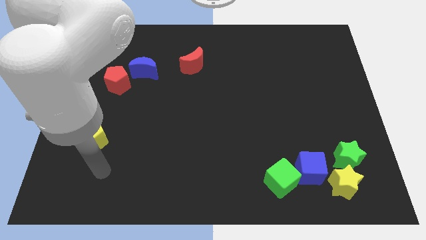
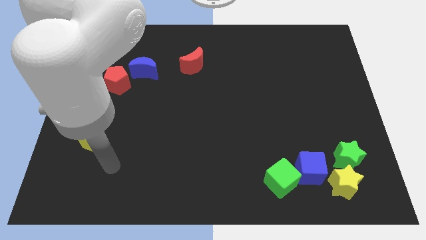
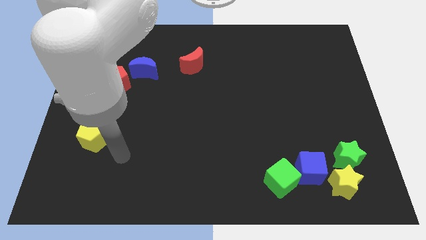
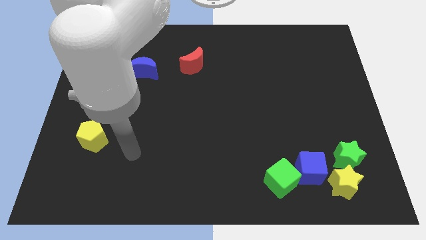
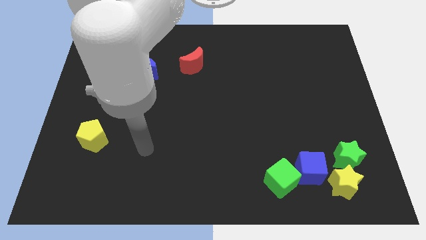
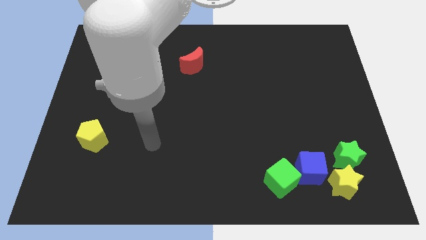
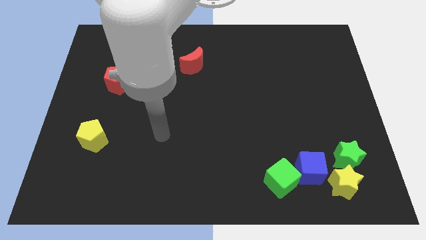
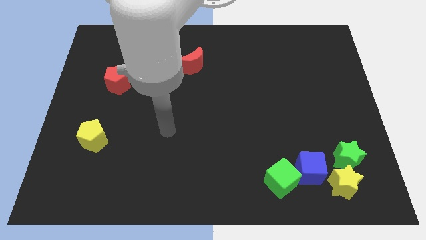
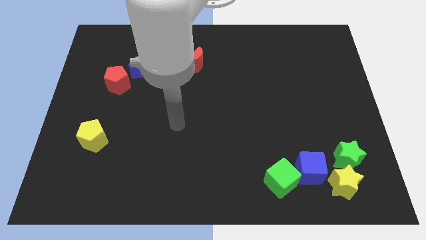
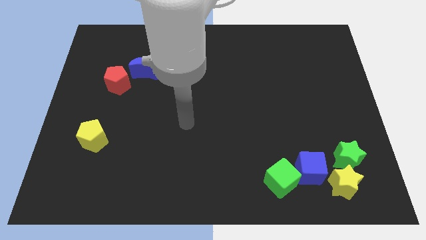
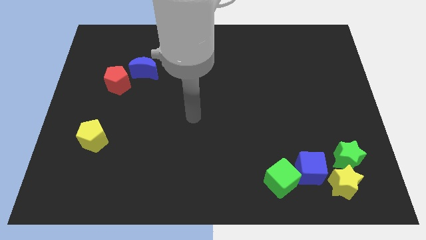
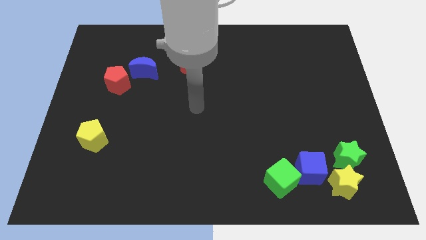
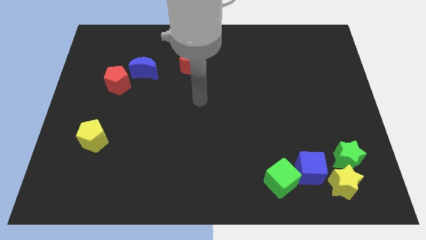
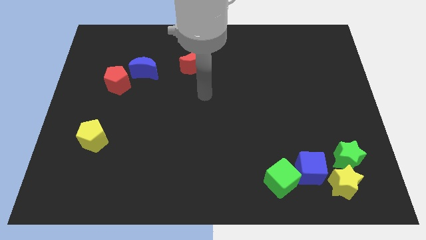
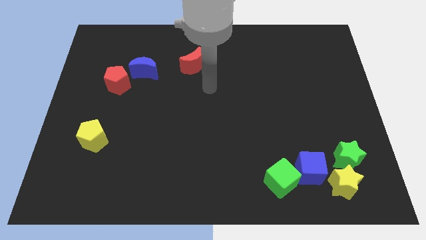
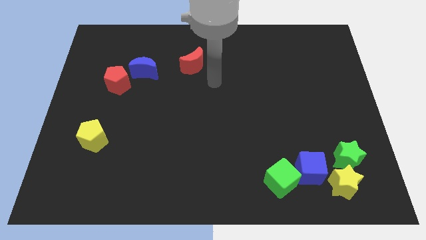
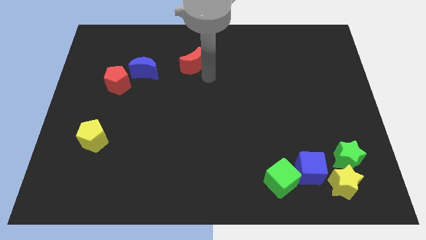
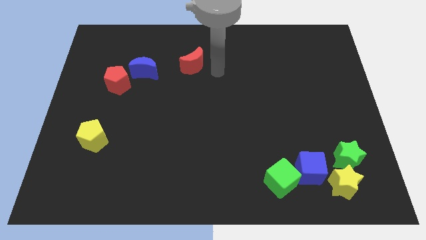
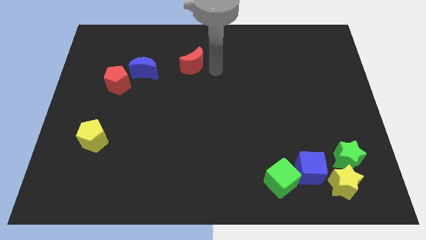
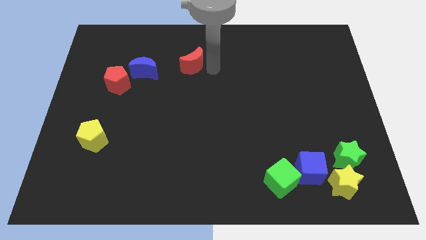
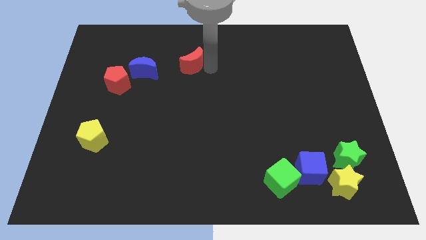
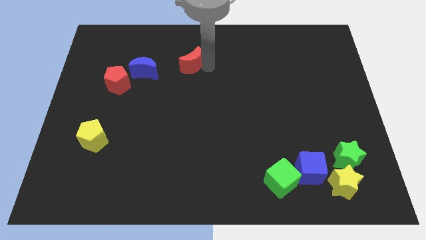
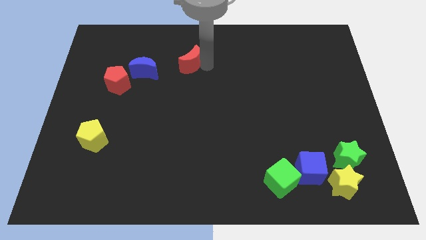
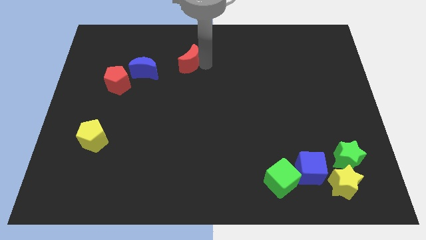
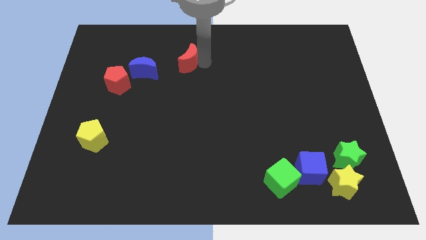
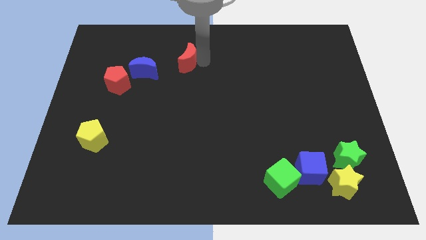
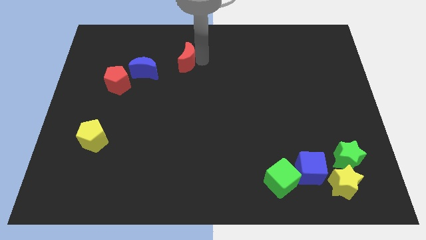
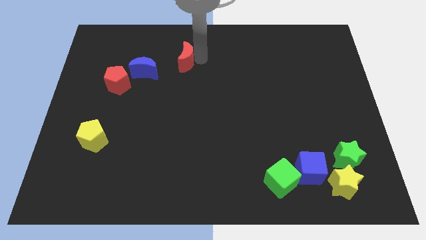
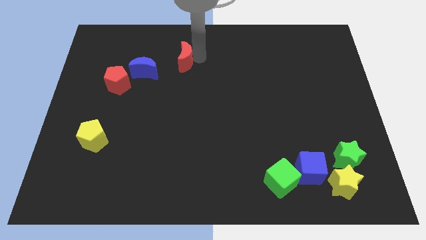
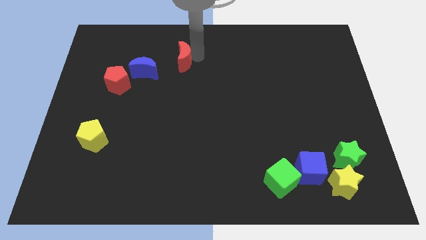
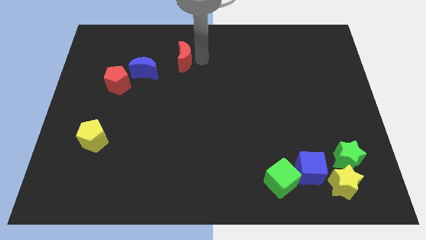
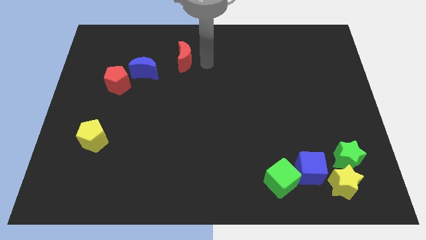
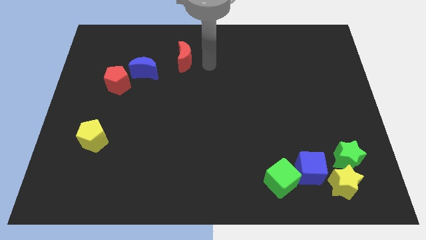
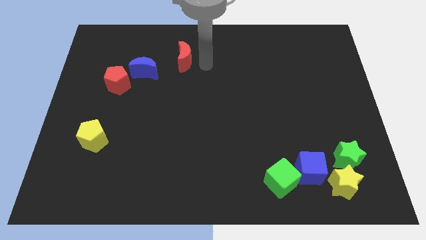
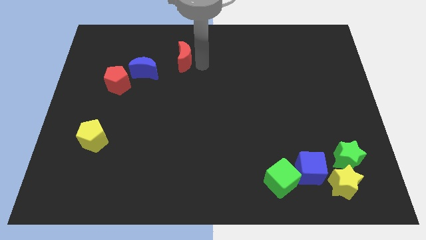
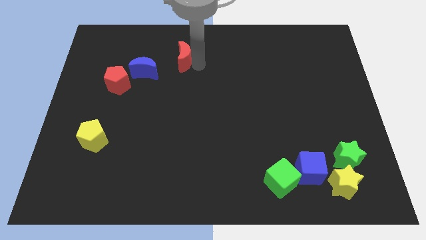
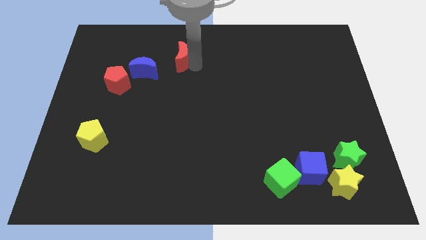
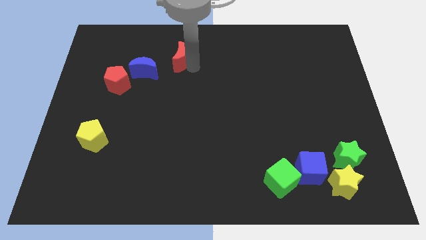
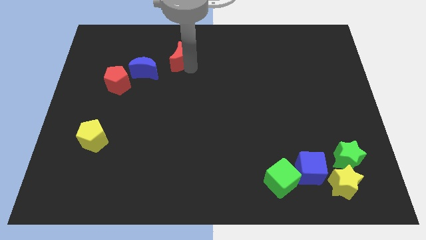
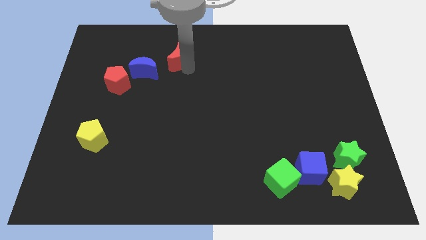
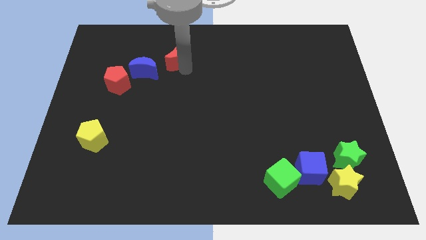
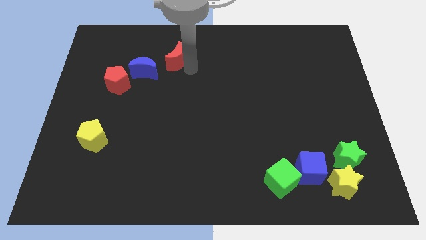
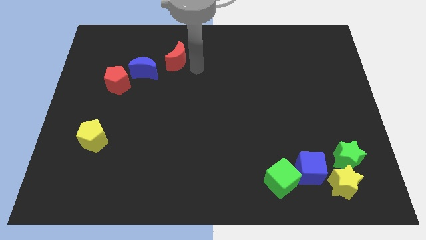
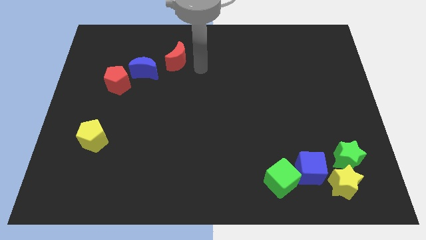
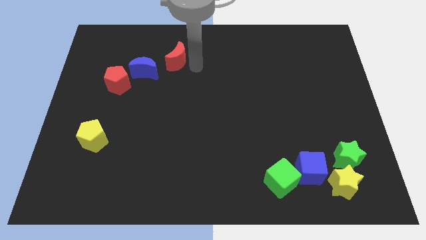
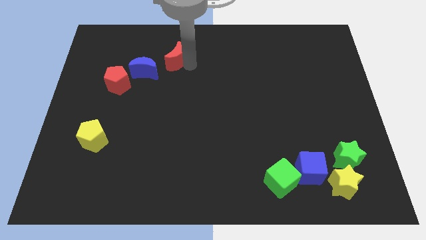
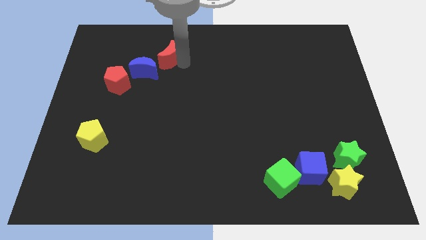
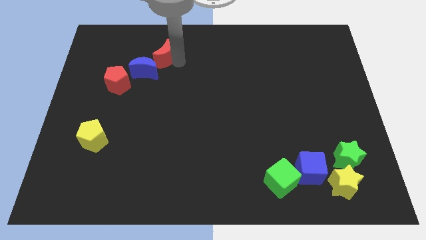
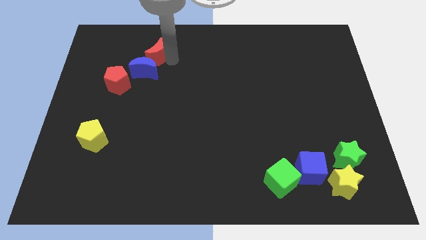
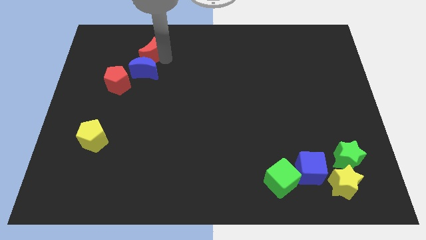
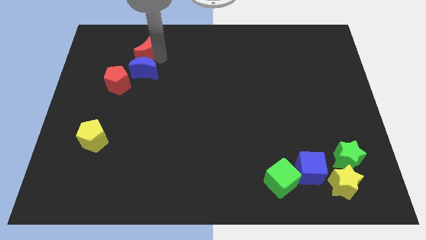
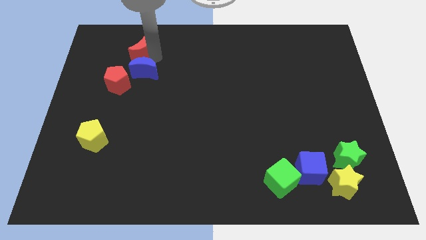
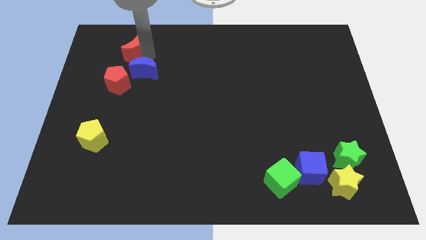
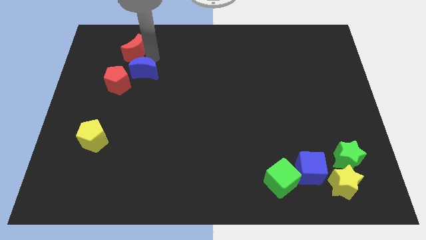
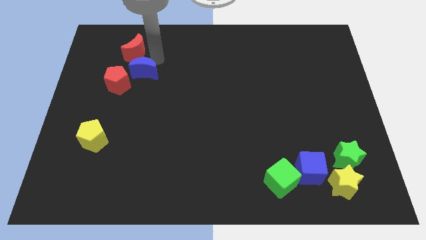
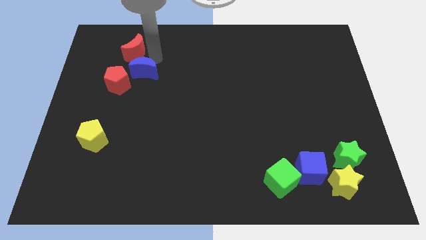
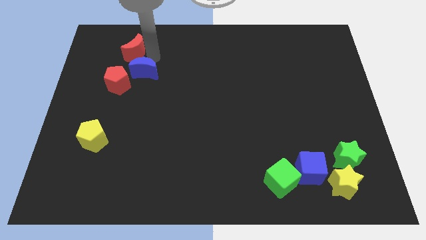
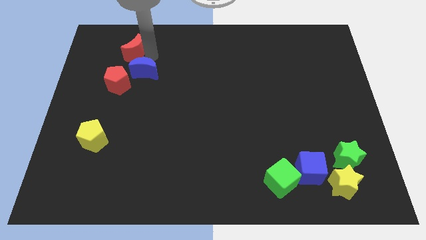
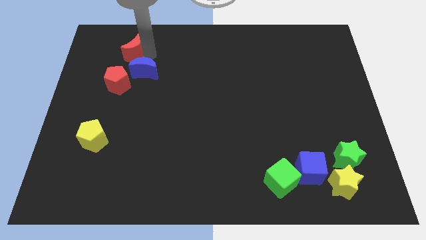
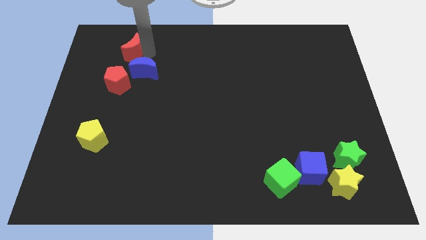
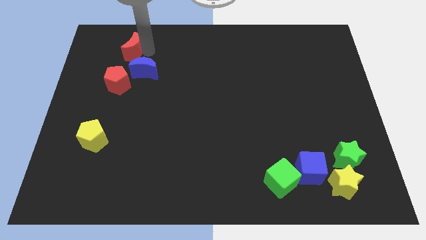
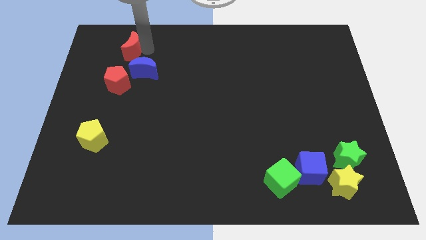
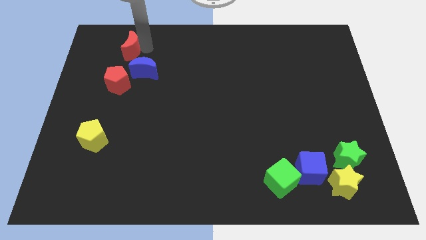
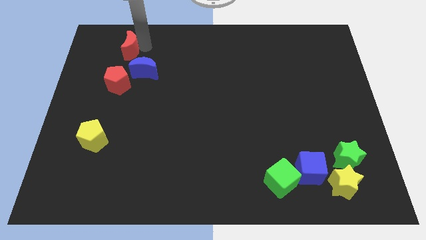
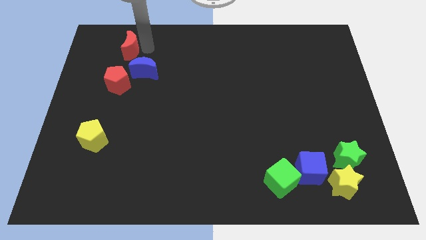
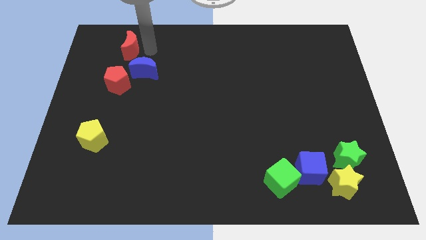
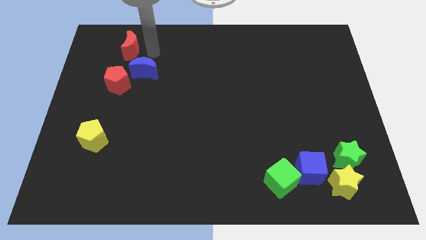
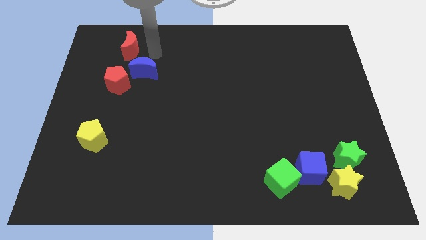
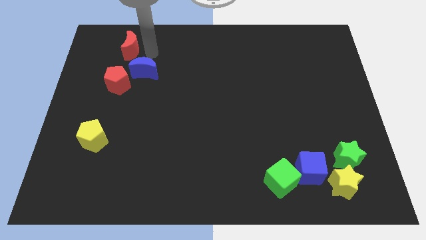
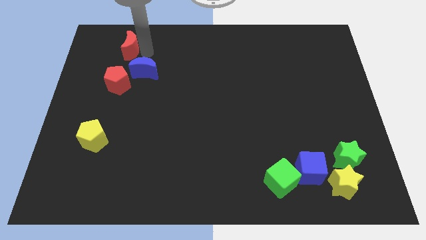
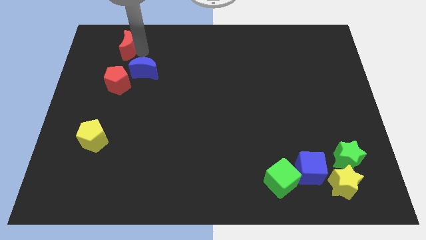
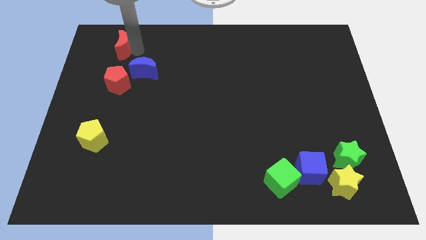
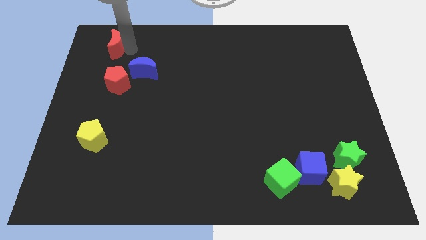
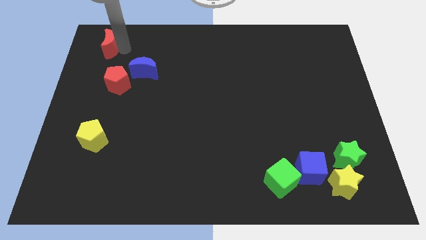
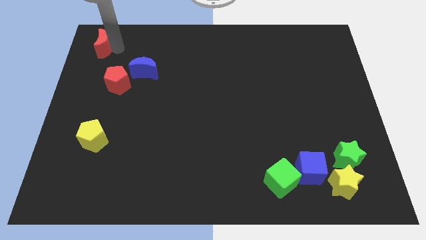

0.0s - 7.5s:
slide the red moon to the top left
